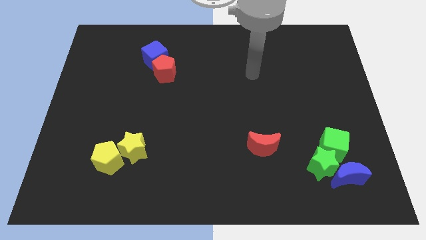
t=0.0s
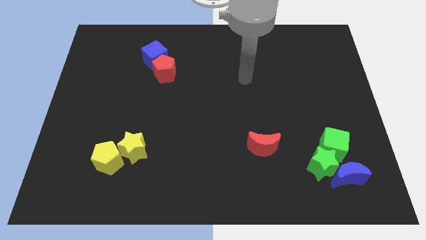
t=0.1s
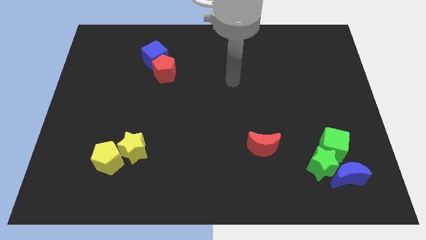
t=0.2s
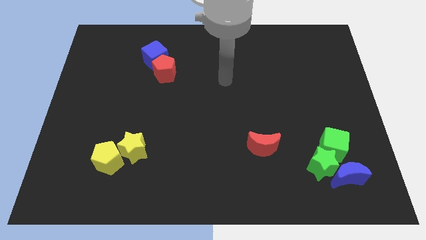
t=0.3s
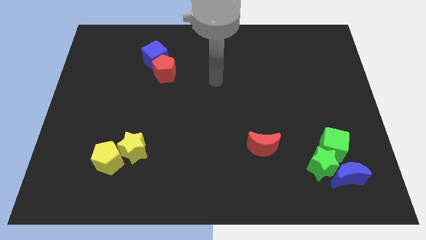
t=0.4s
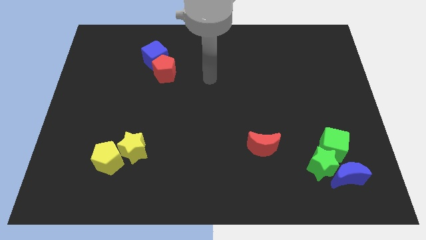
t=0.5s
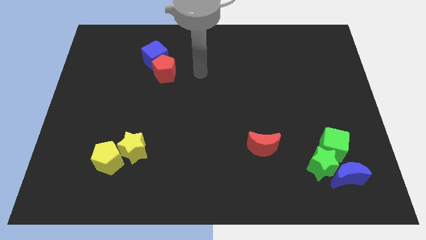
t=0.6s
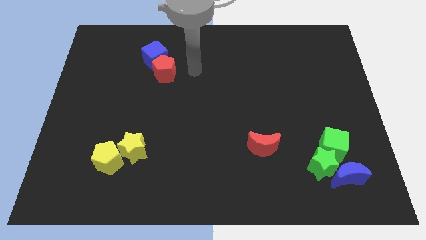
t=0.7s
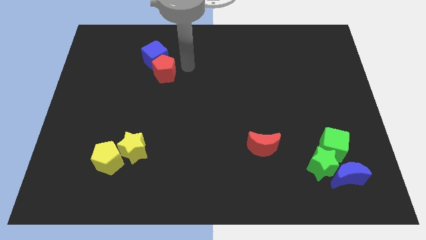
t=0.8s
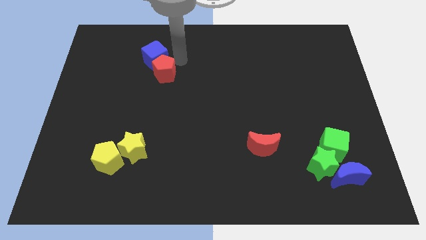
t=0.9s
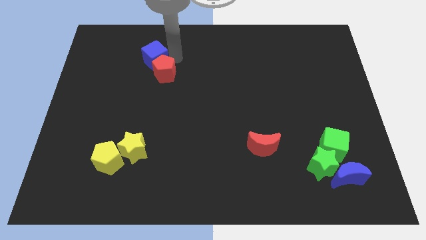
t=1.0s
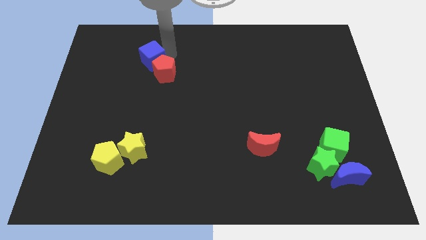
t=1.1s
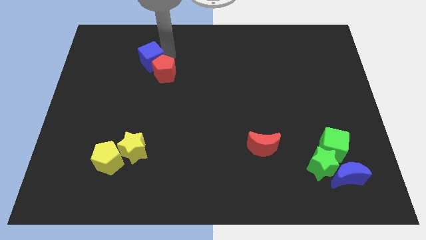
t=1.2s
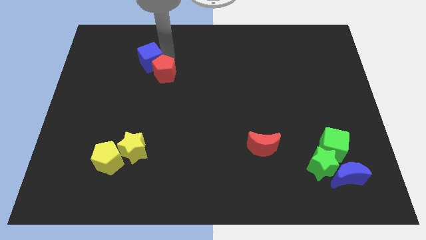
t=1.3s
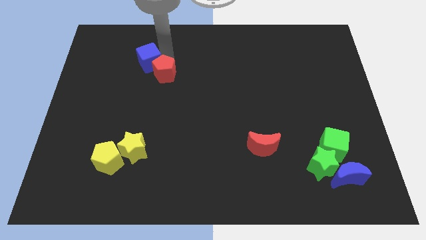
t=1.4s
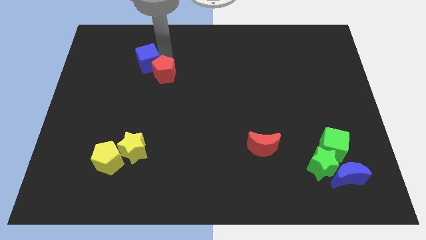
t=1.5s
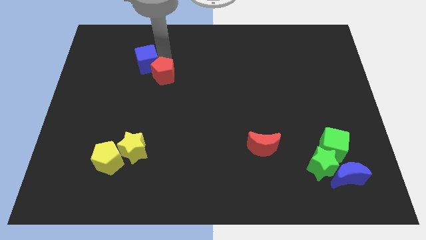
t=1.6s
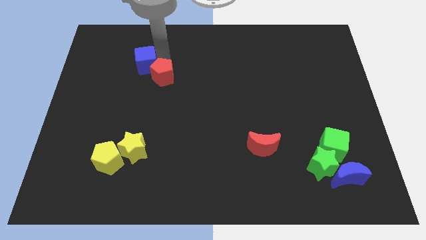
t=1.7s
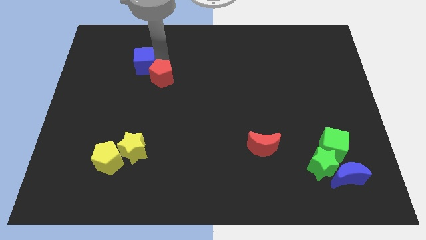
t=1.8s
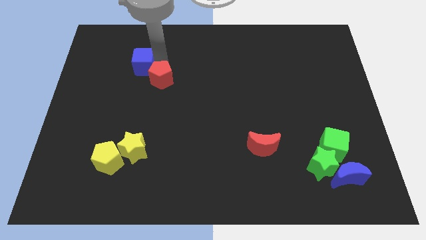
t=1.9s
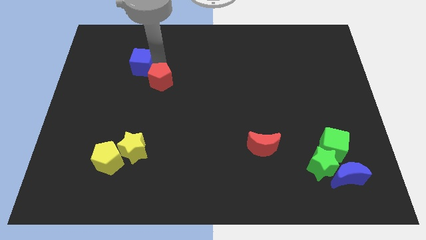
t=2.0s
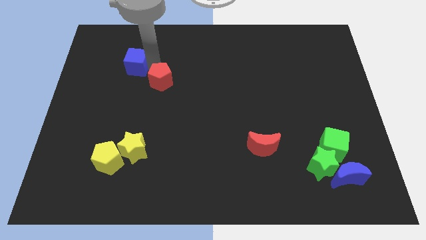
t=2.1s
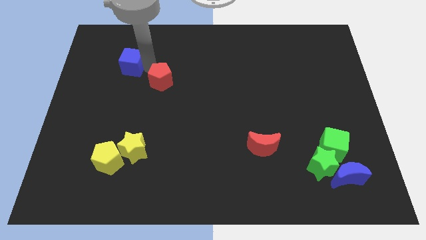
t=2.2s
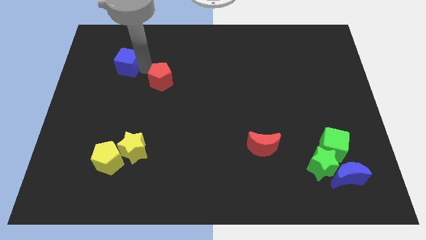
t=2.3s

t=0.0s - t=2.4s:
move the red pentagon away from the blue cube

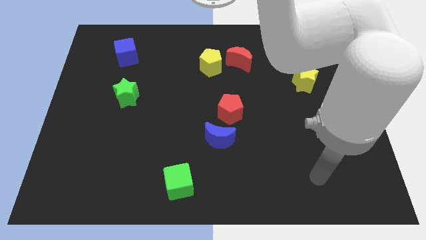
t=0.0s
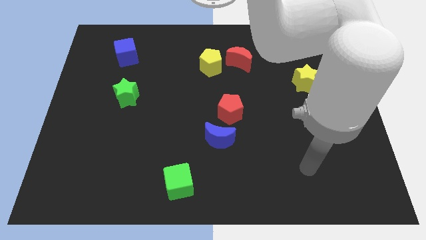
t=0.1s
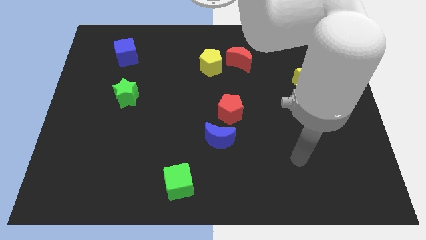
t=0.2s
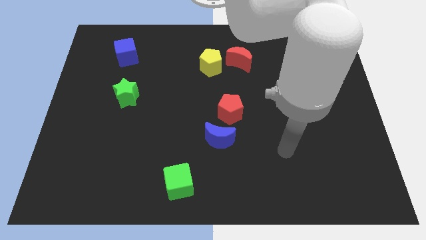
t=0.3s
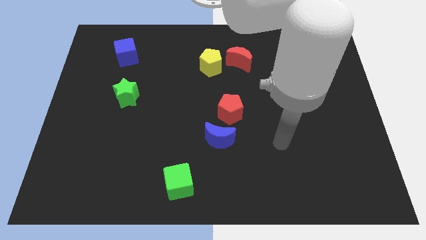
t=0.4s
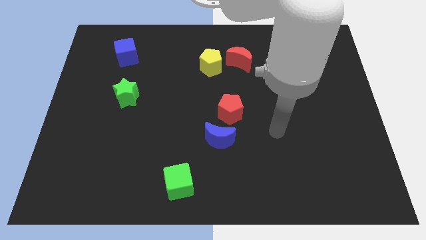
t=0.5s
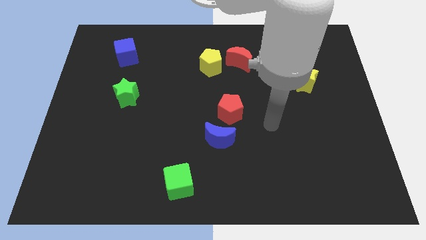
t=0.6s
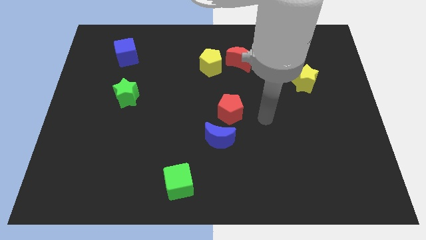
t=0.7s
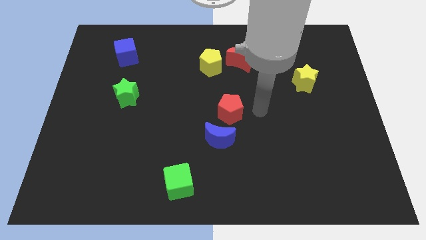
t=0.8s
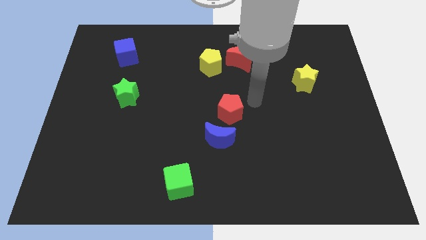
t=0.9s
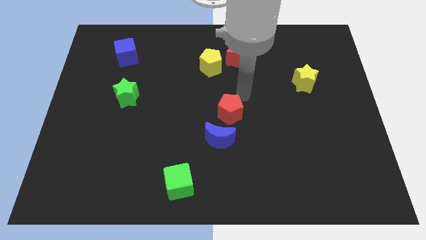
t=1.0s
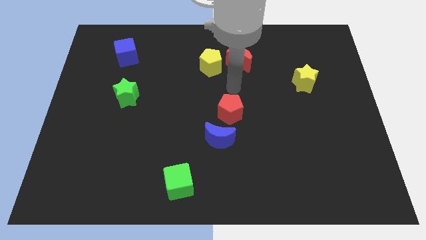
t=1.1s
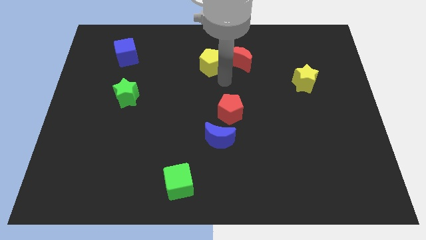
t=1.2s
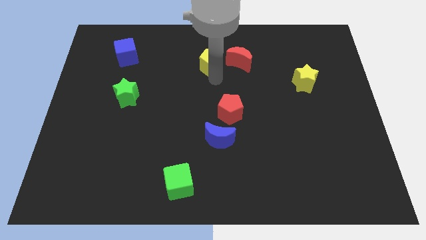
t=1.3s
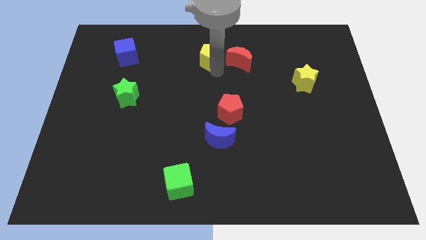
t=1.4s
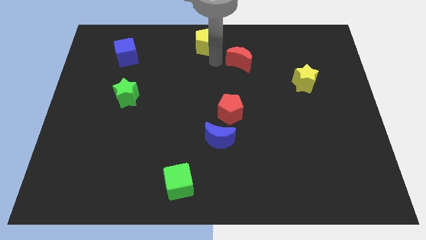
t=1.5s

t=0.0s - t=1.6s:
move the red moon away from the yellow pentagon

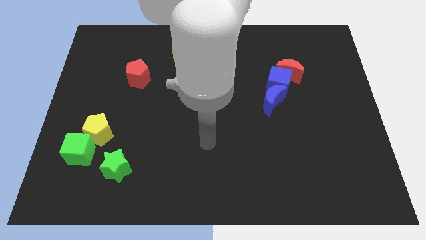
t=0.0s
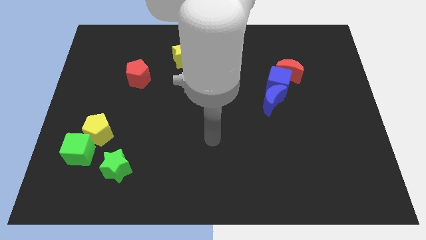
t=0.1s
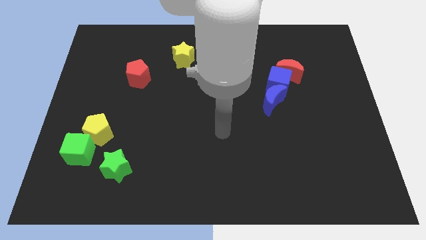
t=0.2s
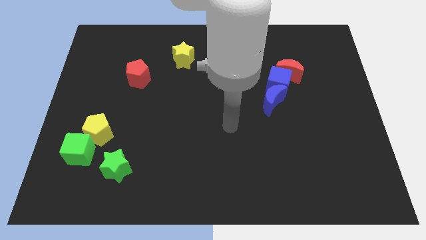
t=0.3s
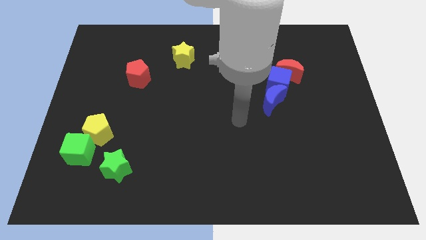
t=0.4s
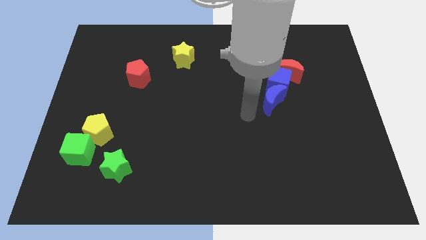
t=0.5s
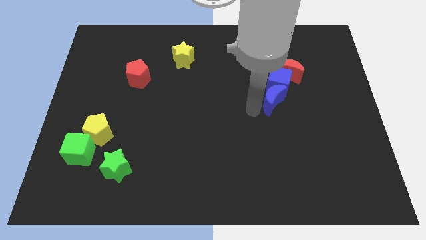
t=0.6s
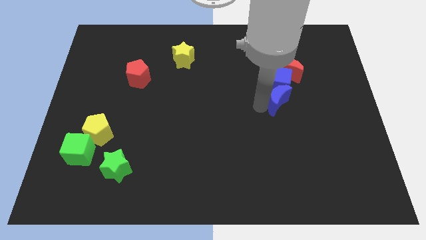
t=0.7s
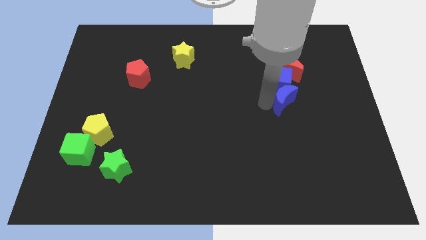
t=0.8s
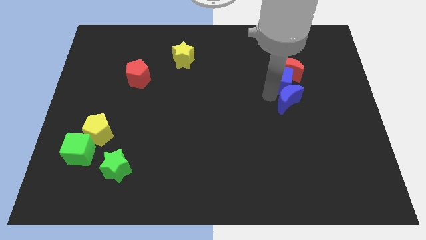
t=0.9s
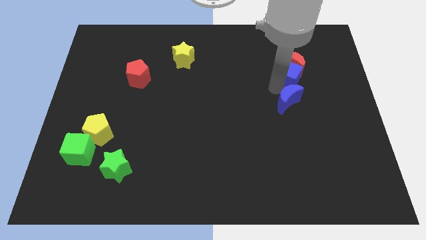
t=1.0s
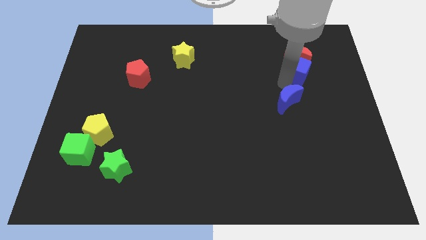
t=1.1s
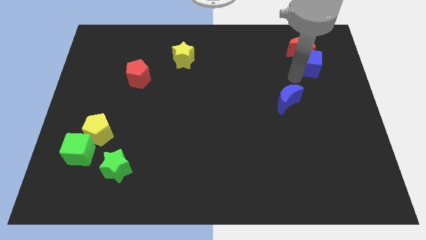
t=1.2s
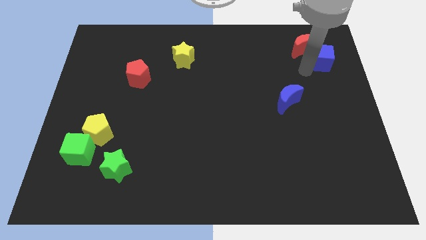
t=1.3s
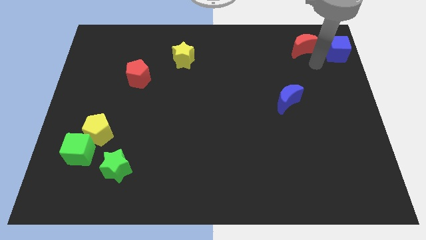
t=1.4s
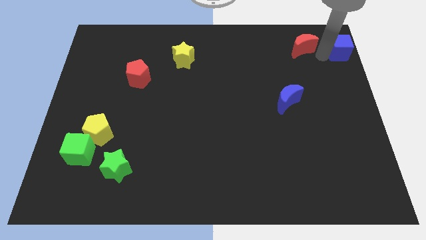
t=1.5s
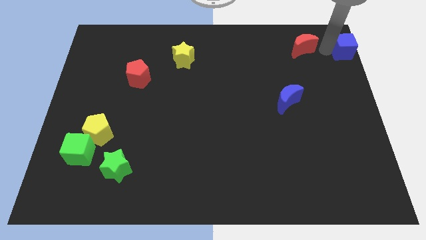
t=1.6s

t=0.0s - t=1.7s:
separate the red moon from the blue cube

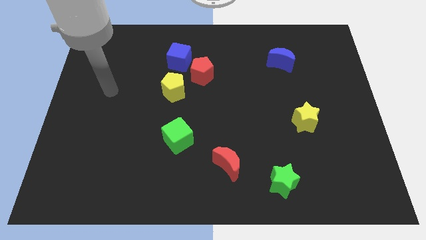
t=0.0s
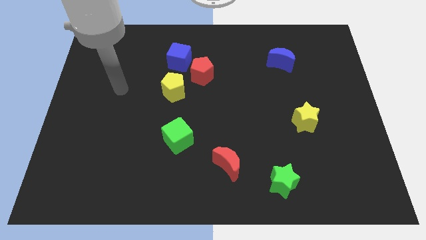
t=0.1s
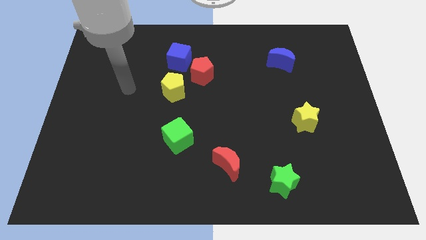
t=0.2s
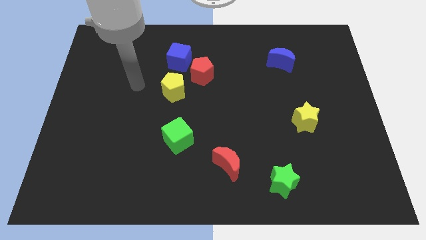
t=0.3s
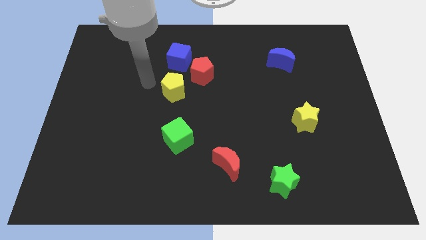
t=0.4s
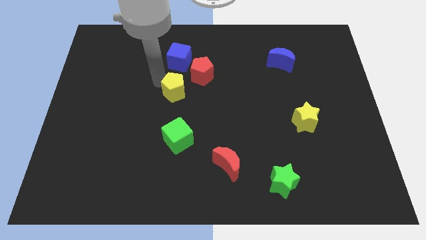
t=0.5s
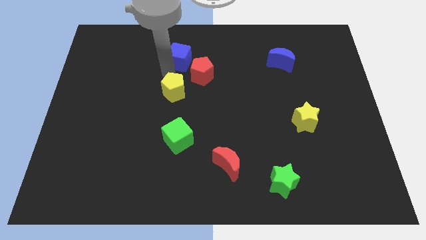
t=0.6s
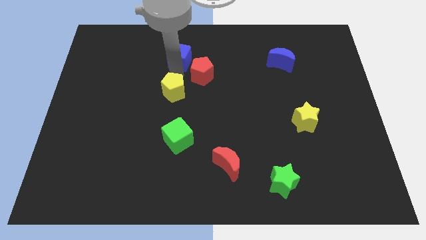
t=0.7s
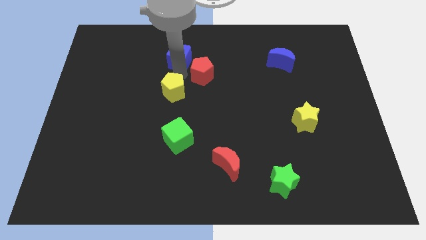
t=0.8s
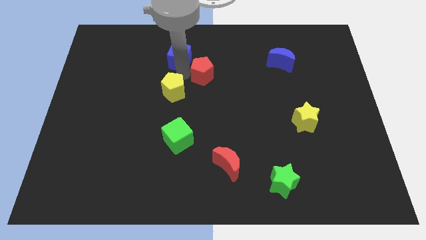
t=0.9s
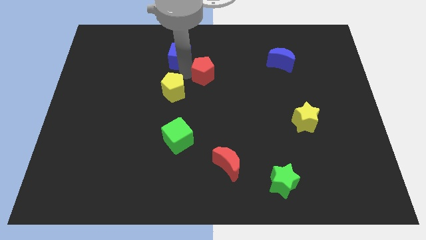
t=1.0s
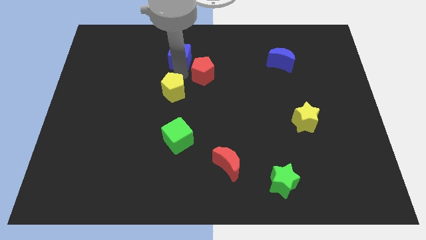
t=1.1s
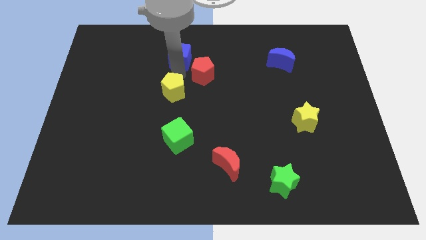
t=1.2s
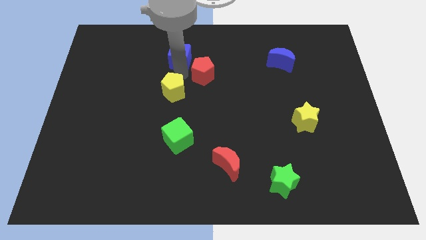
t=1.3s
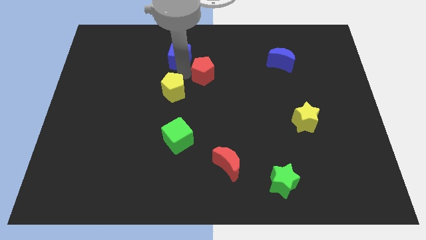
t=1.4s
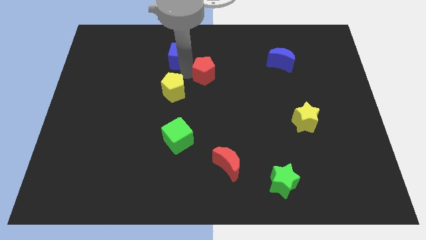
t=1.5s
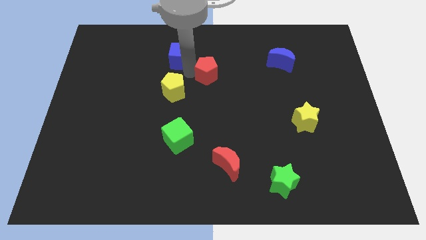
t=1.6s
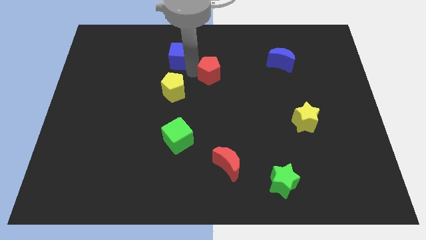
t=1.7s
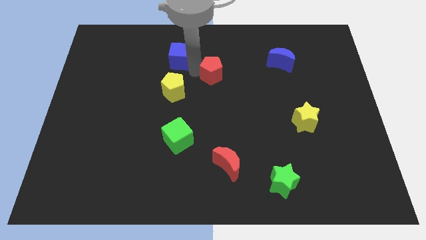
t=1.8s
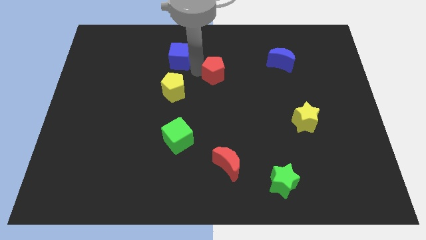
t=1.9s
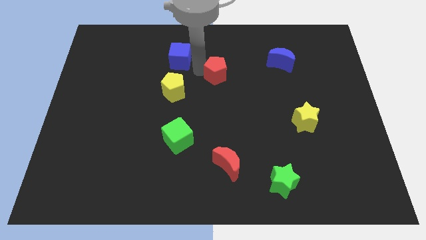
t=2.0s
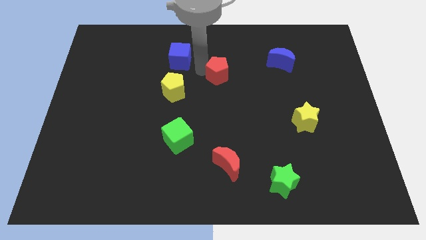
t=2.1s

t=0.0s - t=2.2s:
pull the red pentagon apart from the blue cube and yellow pentagon

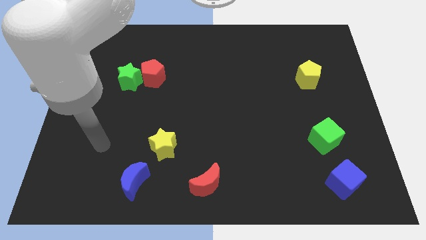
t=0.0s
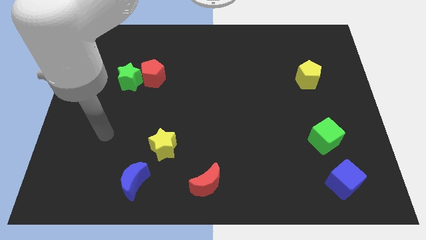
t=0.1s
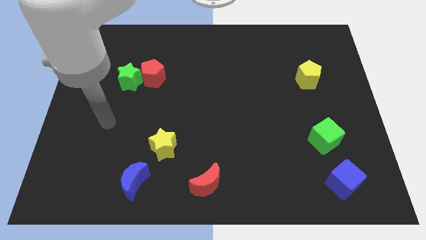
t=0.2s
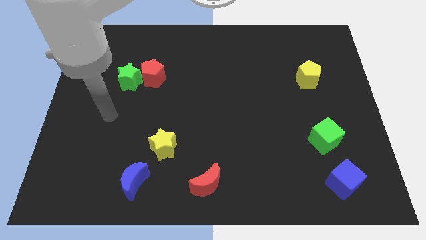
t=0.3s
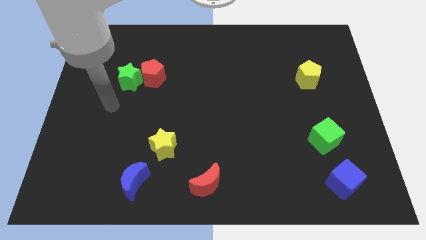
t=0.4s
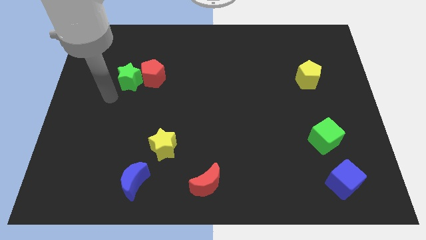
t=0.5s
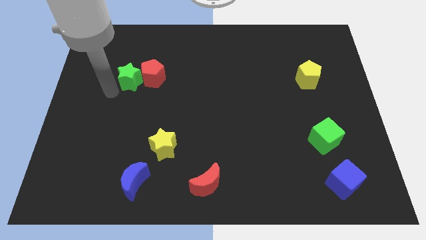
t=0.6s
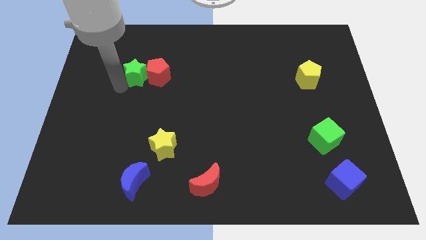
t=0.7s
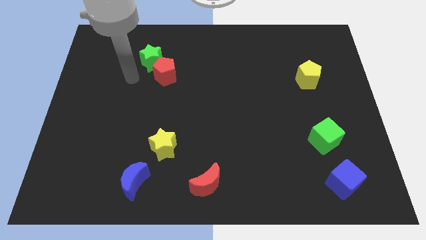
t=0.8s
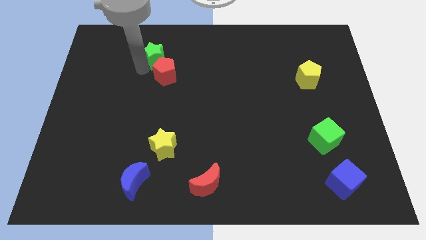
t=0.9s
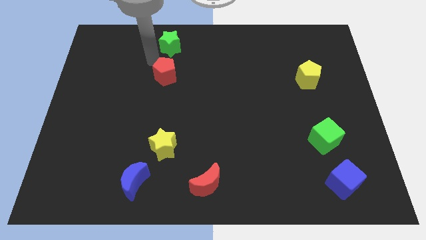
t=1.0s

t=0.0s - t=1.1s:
separate the red pentagon from the green star

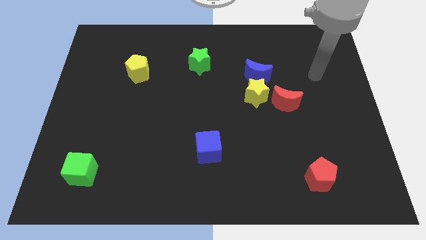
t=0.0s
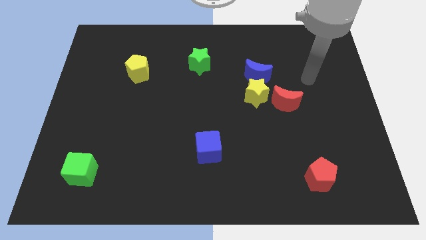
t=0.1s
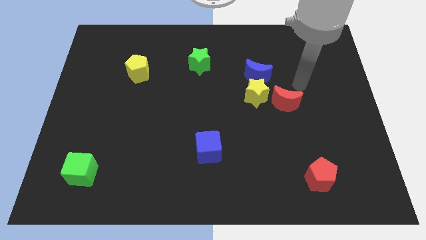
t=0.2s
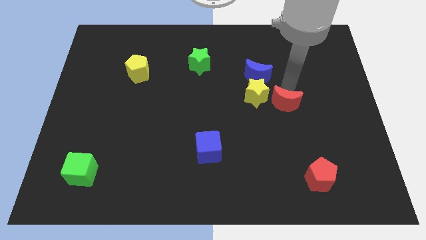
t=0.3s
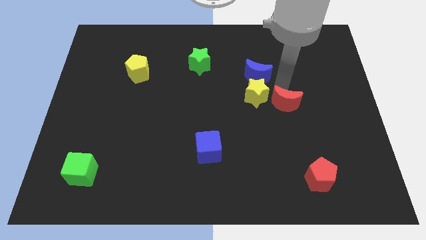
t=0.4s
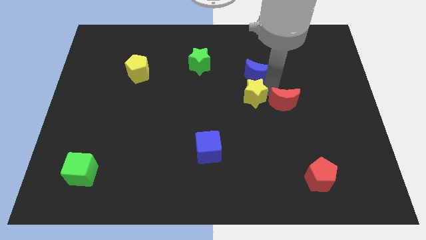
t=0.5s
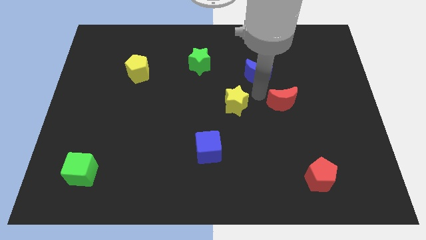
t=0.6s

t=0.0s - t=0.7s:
separate the blue moon from the yellow star
